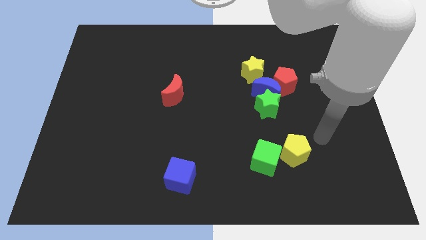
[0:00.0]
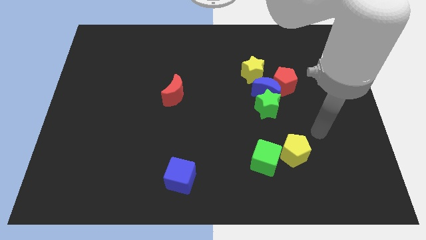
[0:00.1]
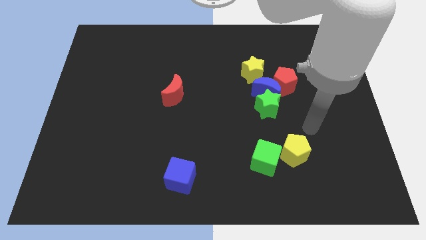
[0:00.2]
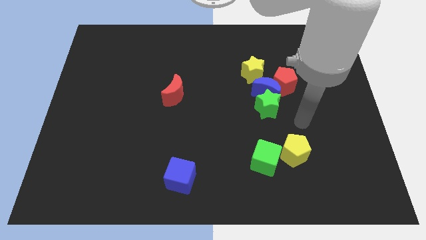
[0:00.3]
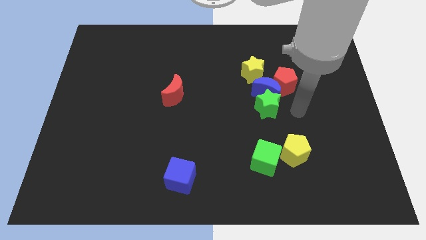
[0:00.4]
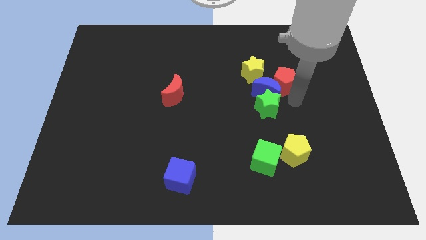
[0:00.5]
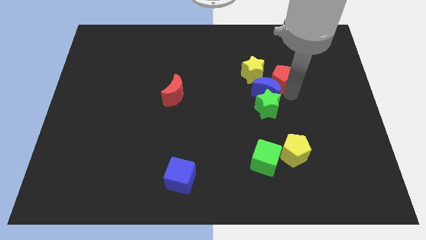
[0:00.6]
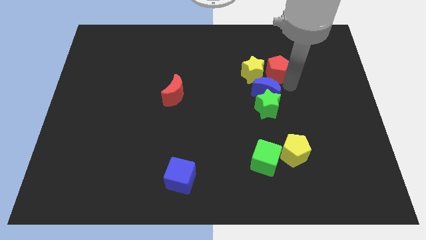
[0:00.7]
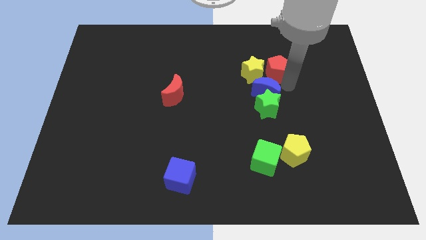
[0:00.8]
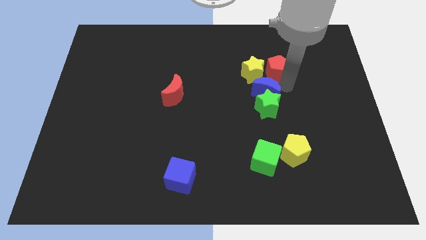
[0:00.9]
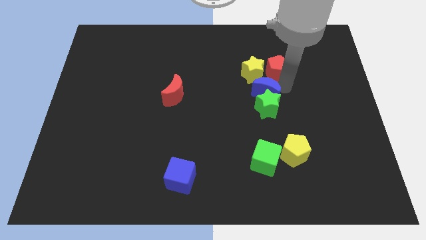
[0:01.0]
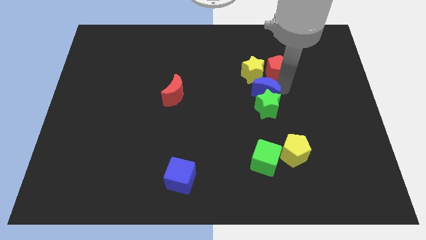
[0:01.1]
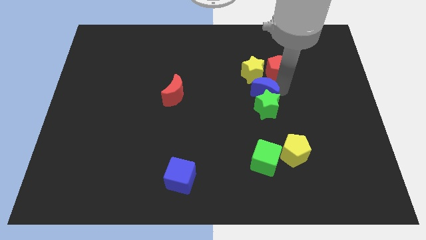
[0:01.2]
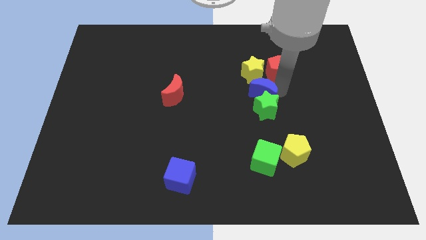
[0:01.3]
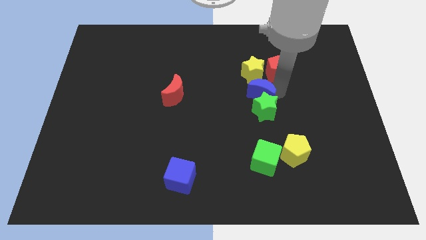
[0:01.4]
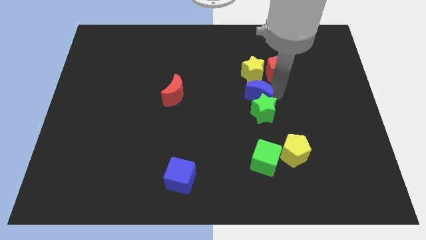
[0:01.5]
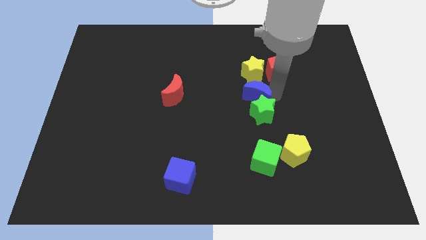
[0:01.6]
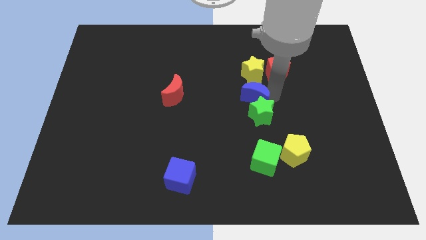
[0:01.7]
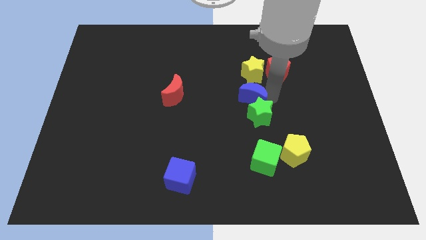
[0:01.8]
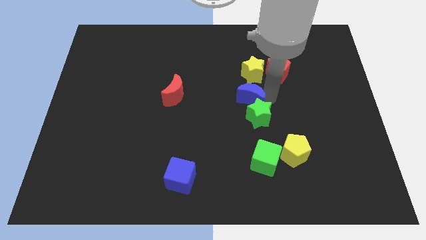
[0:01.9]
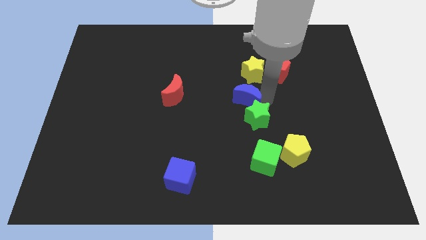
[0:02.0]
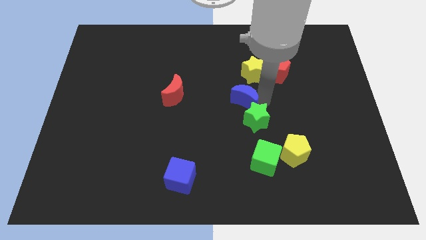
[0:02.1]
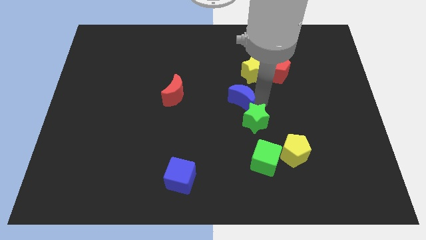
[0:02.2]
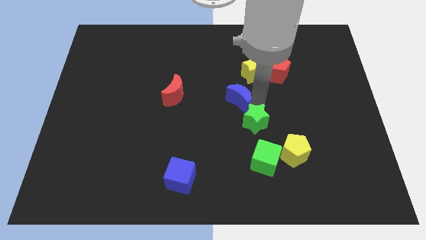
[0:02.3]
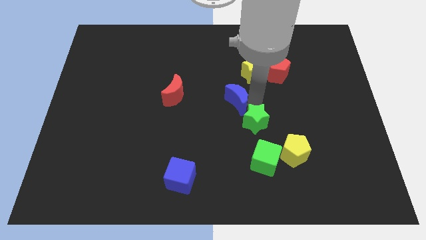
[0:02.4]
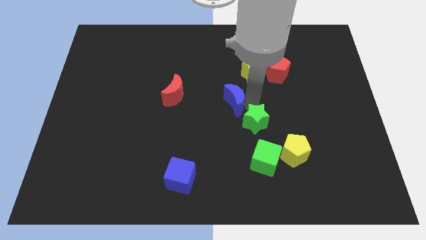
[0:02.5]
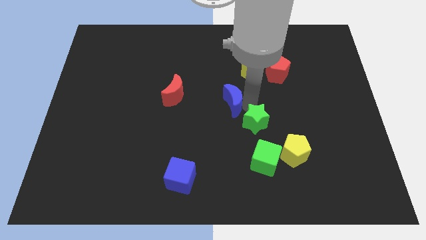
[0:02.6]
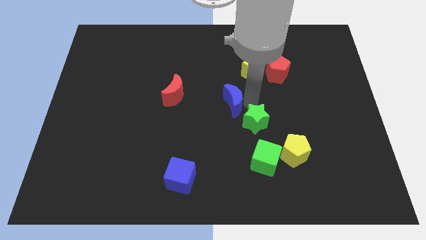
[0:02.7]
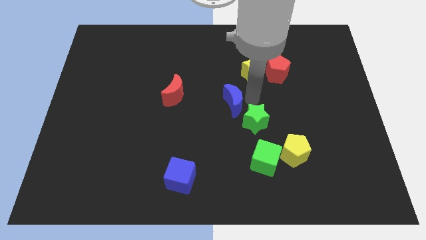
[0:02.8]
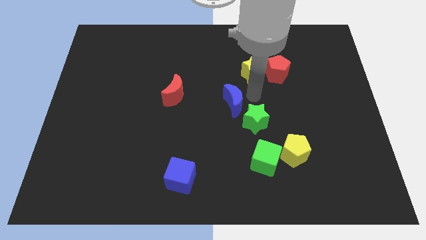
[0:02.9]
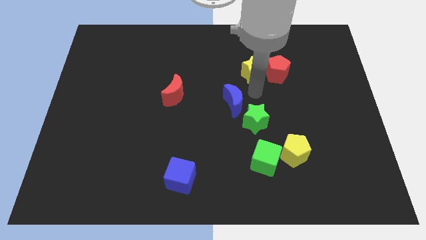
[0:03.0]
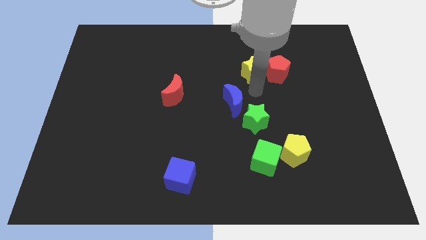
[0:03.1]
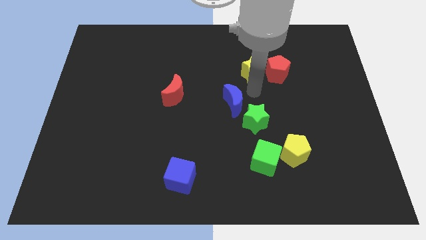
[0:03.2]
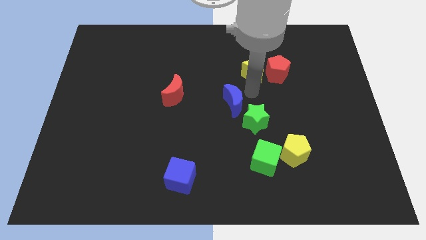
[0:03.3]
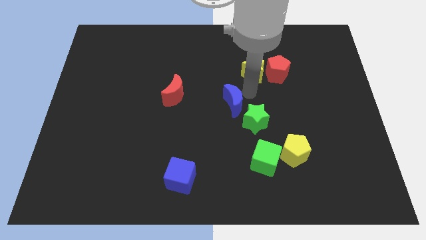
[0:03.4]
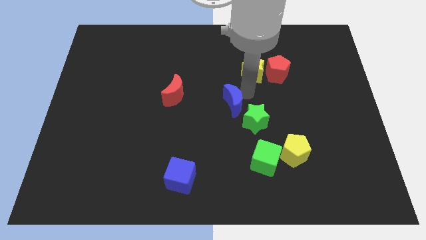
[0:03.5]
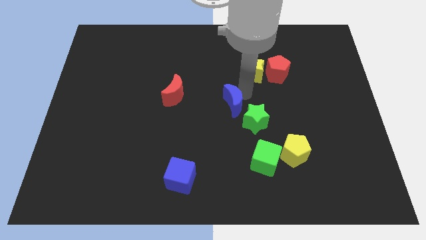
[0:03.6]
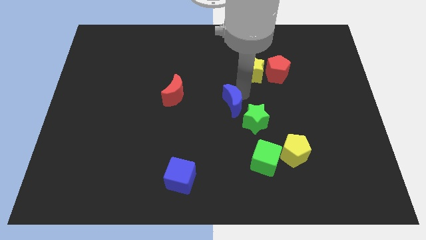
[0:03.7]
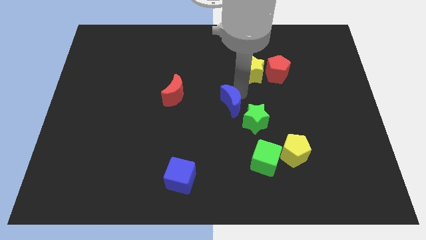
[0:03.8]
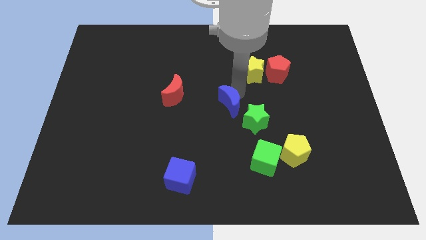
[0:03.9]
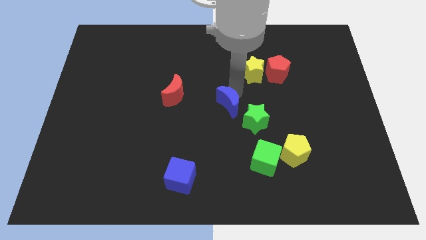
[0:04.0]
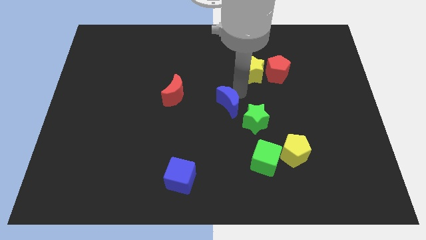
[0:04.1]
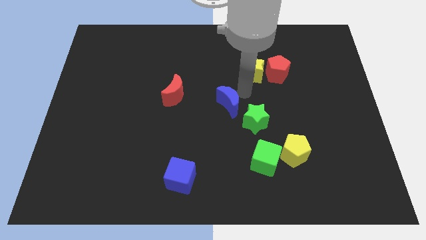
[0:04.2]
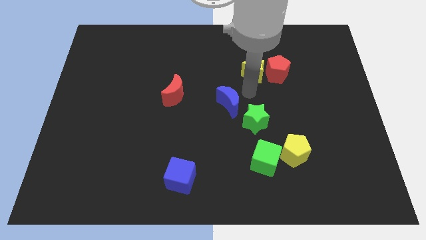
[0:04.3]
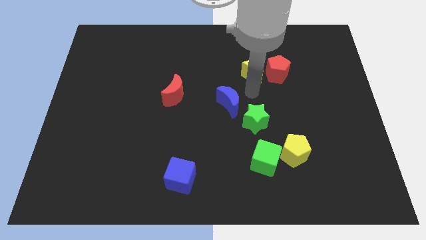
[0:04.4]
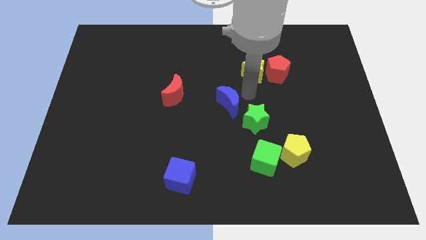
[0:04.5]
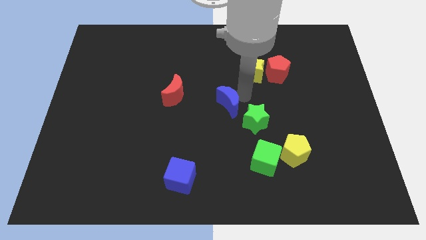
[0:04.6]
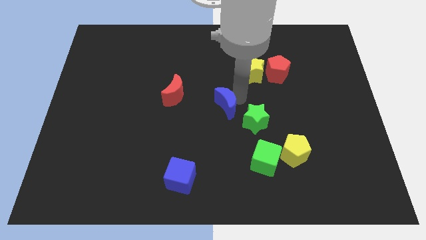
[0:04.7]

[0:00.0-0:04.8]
separate the blue moon from the green star, red pentagon, and yellow star

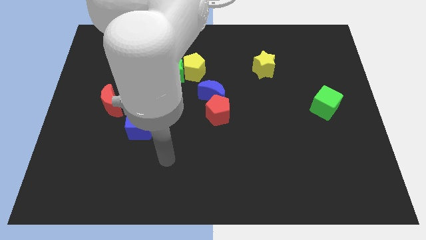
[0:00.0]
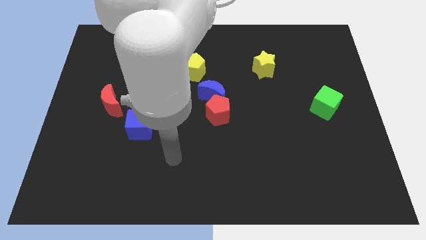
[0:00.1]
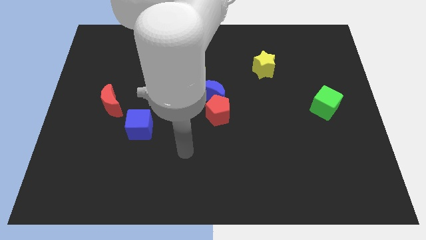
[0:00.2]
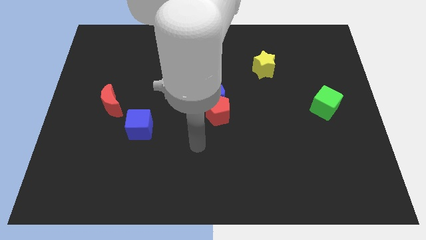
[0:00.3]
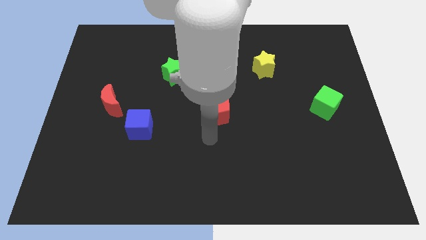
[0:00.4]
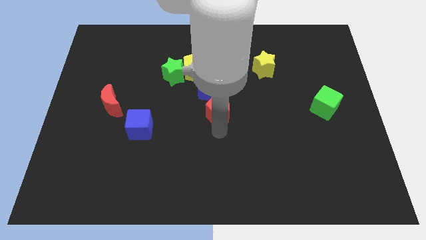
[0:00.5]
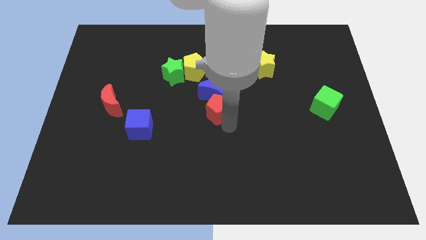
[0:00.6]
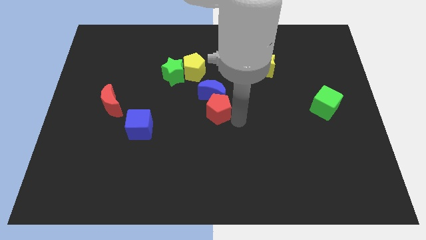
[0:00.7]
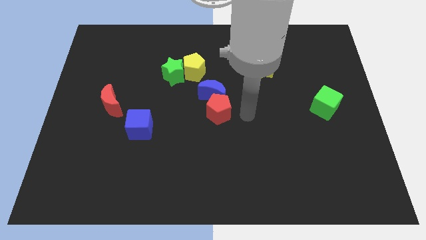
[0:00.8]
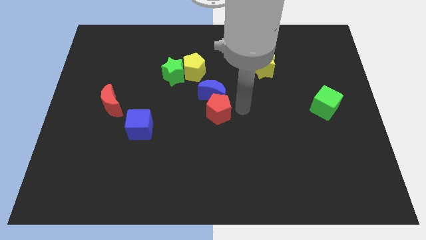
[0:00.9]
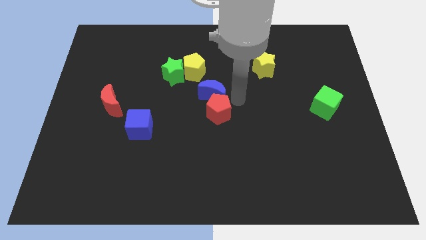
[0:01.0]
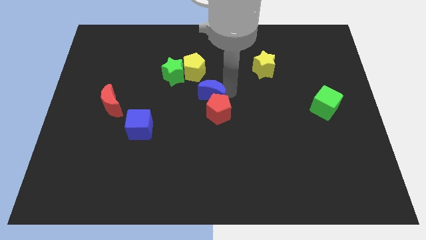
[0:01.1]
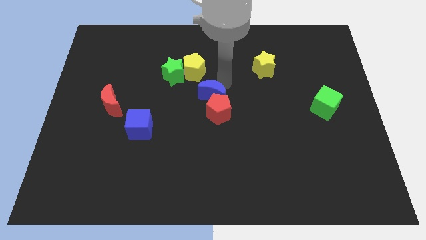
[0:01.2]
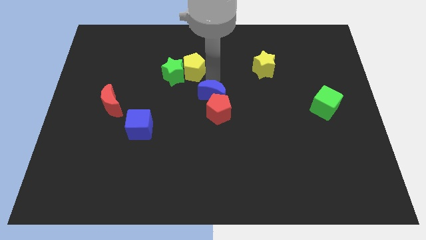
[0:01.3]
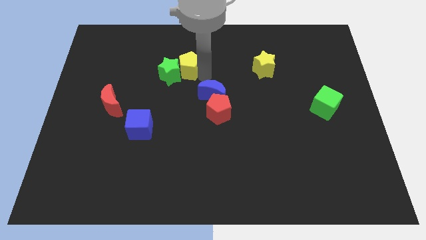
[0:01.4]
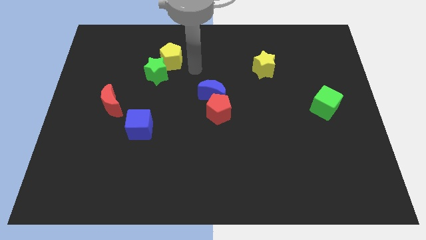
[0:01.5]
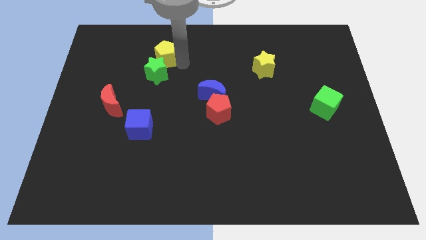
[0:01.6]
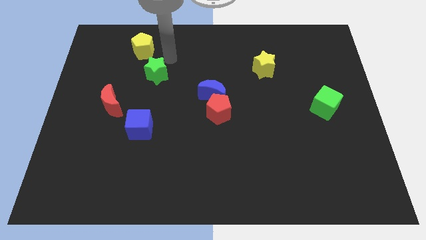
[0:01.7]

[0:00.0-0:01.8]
separate the green star from the yellow pentagon

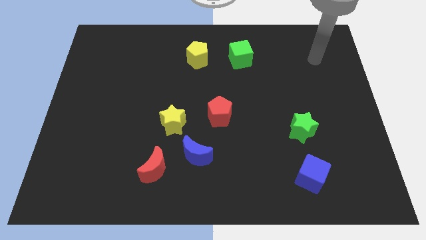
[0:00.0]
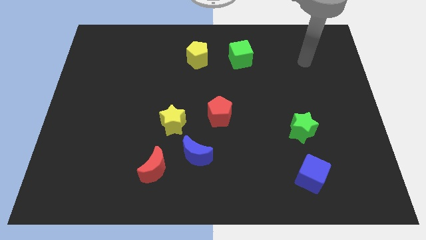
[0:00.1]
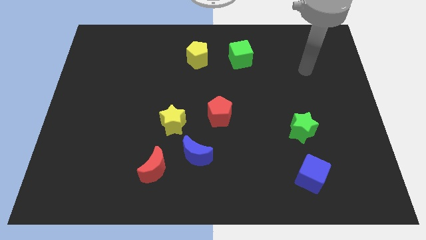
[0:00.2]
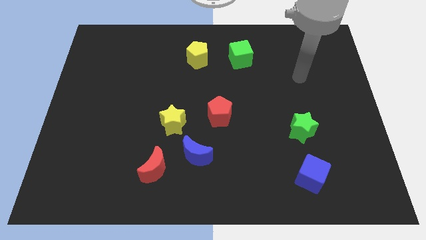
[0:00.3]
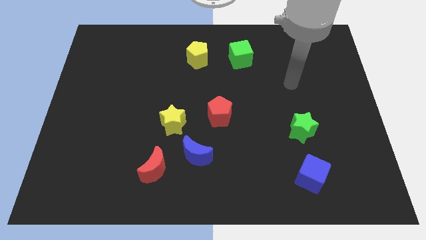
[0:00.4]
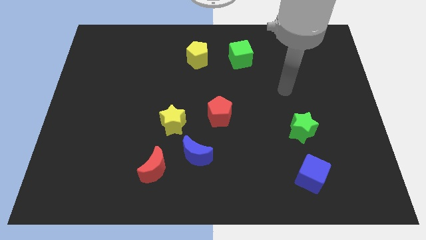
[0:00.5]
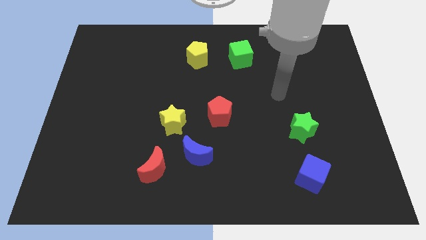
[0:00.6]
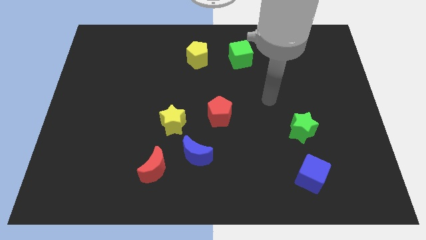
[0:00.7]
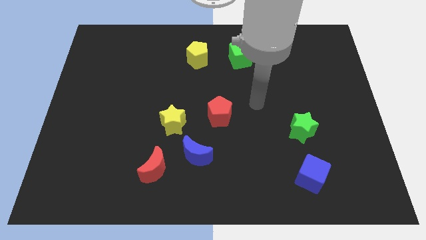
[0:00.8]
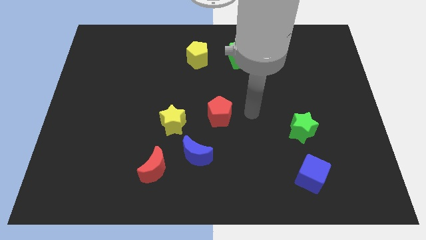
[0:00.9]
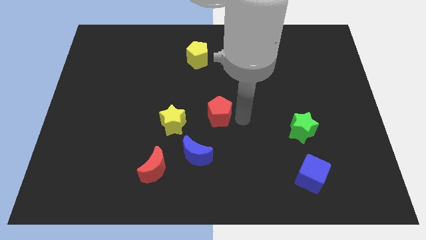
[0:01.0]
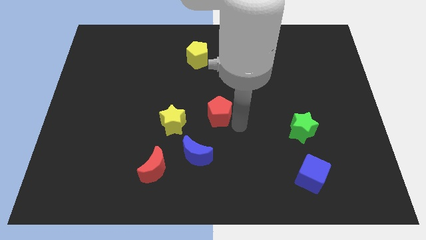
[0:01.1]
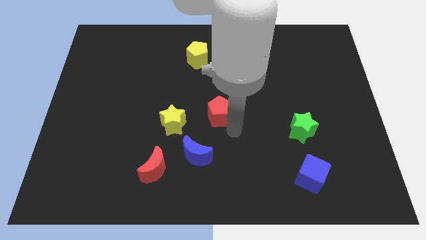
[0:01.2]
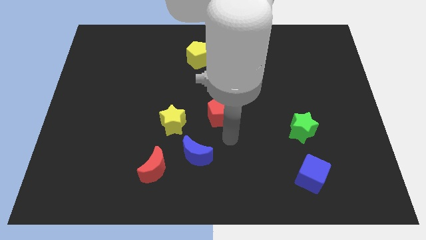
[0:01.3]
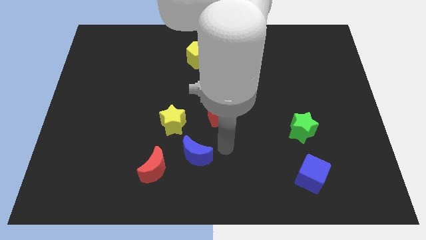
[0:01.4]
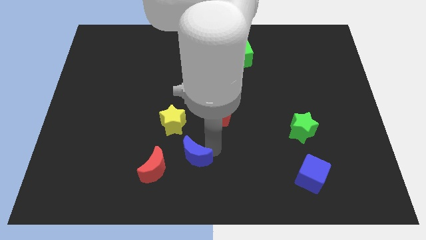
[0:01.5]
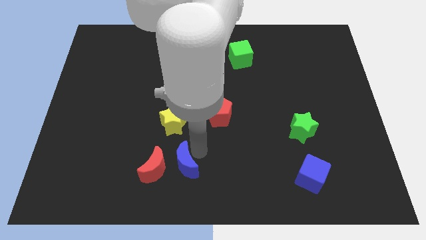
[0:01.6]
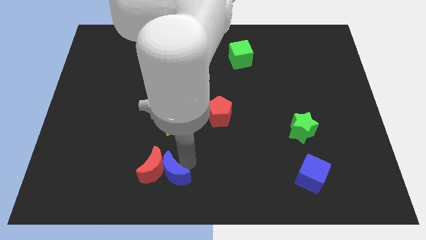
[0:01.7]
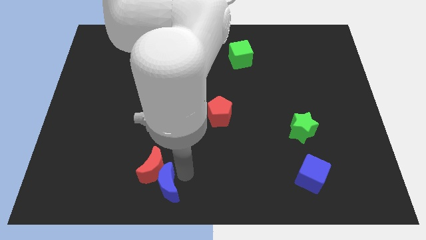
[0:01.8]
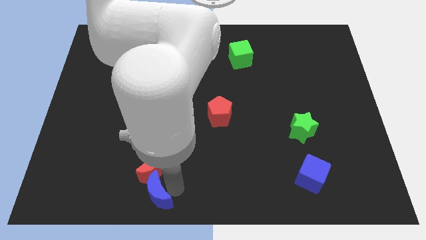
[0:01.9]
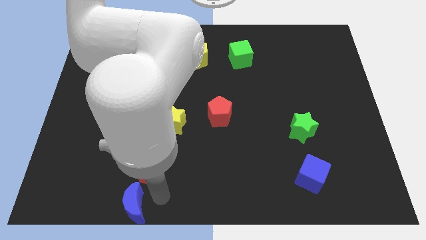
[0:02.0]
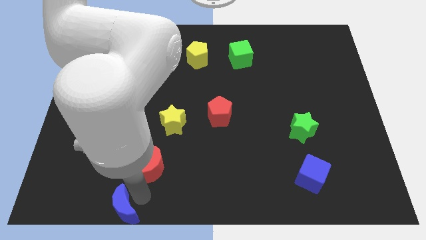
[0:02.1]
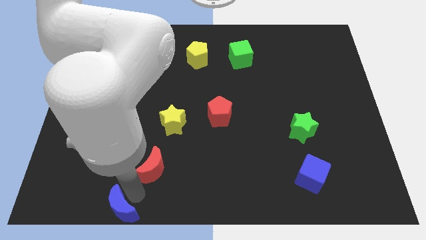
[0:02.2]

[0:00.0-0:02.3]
pull the red moon apart from the blue moon

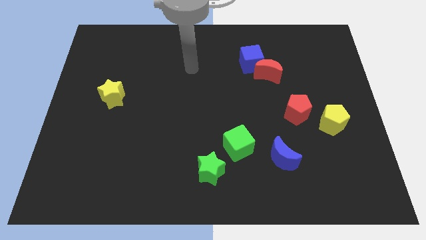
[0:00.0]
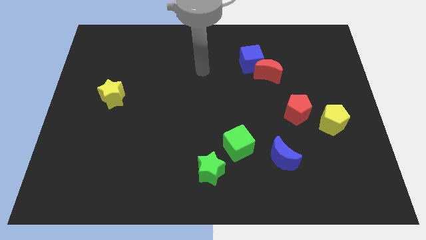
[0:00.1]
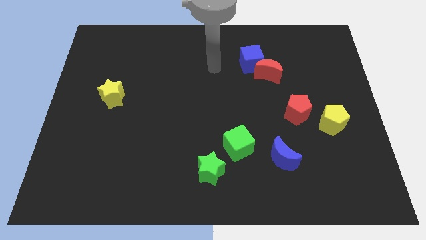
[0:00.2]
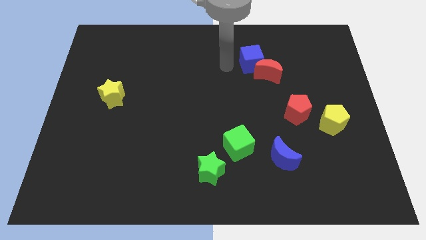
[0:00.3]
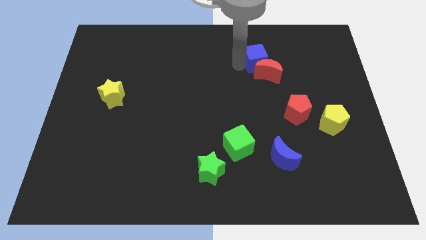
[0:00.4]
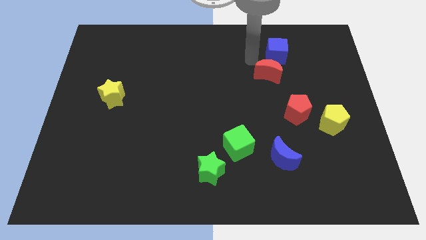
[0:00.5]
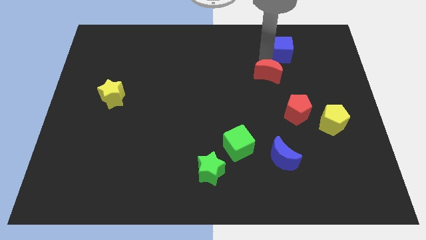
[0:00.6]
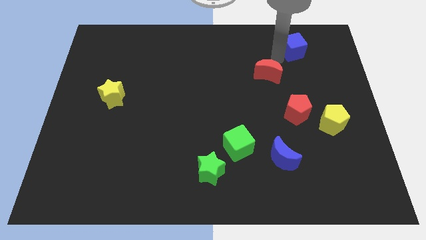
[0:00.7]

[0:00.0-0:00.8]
move the red moon away from the blue cube
